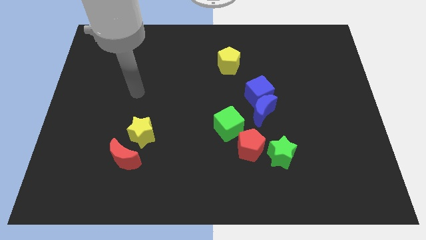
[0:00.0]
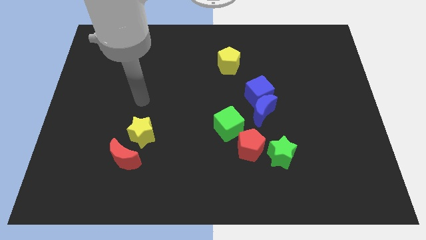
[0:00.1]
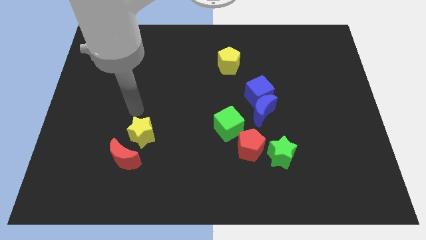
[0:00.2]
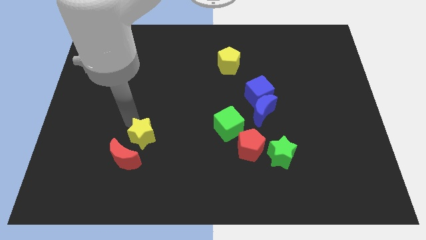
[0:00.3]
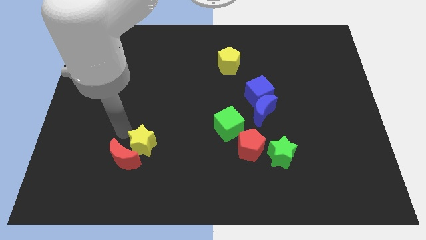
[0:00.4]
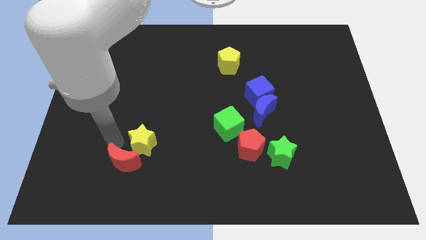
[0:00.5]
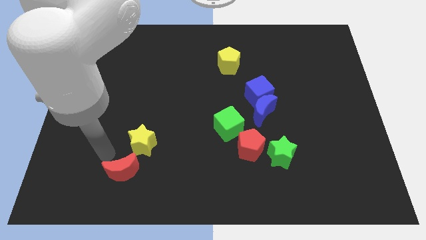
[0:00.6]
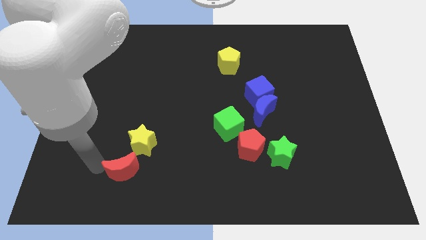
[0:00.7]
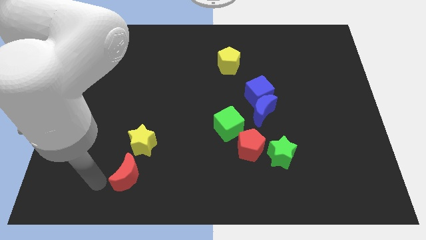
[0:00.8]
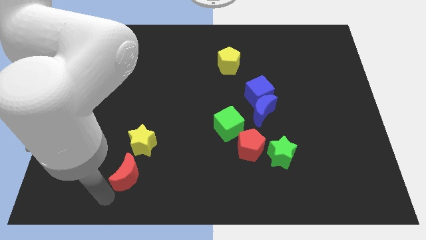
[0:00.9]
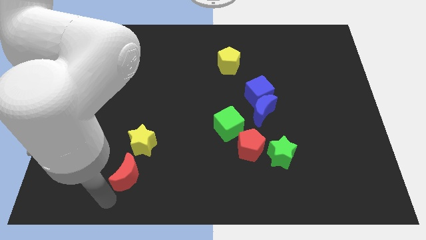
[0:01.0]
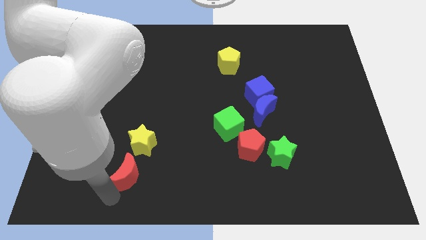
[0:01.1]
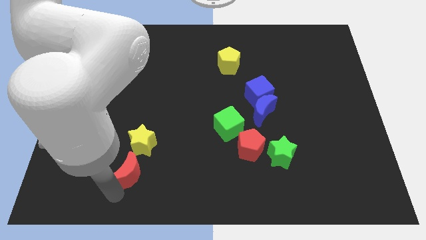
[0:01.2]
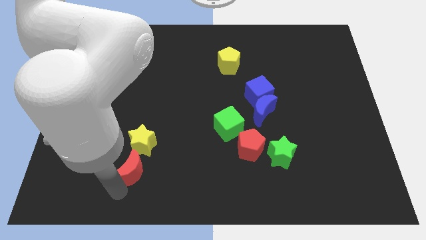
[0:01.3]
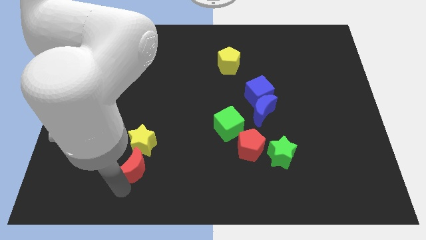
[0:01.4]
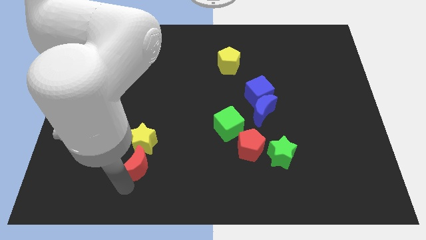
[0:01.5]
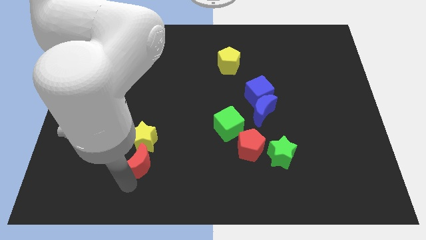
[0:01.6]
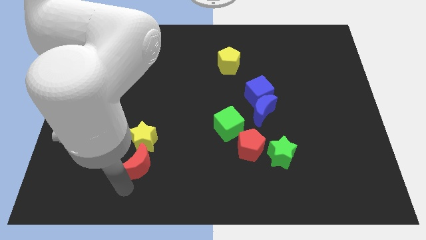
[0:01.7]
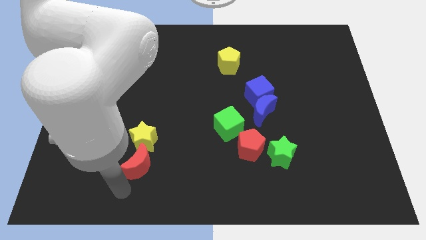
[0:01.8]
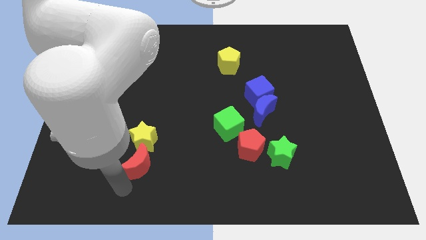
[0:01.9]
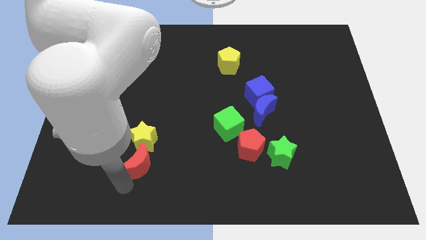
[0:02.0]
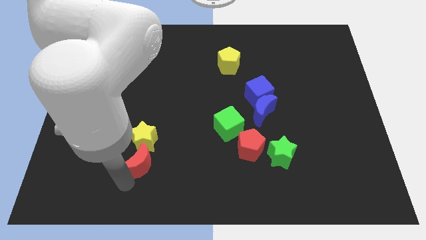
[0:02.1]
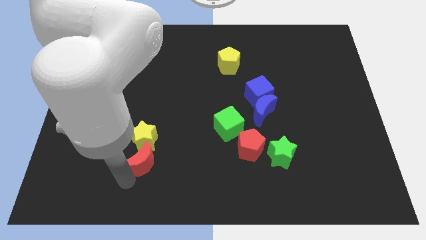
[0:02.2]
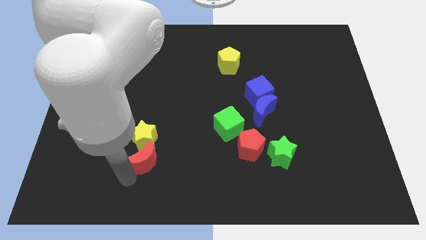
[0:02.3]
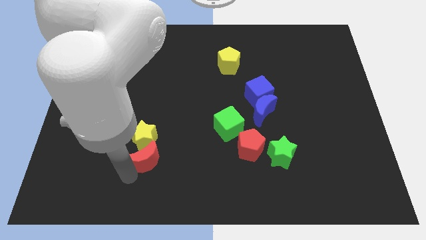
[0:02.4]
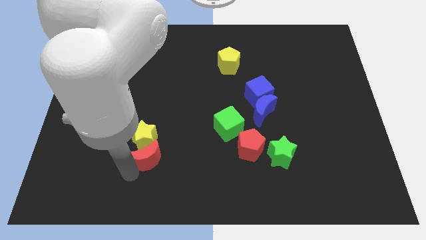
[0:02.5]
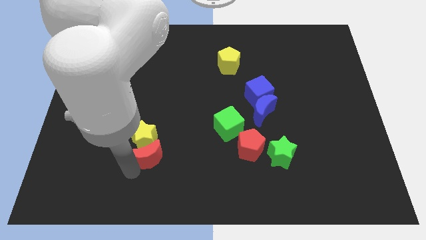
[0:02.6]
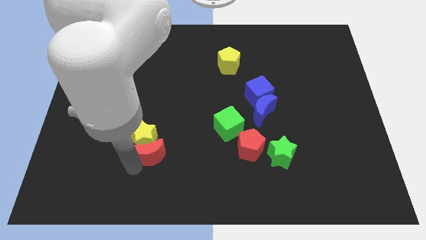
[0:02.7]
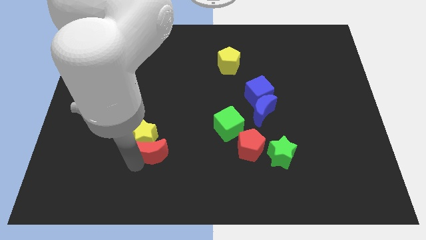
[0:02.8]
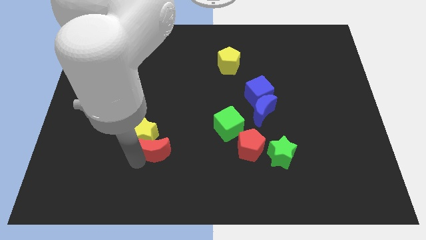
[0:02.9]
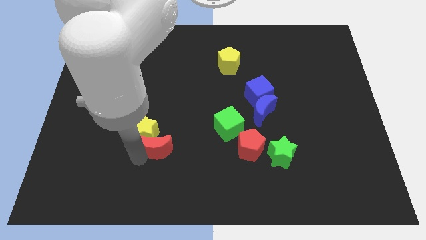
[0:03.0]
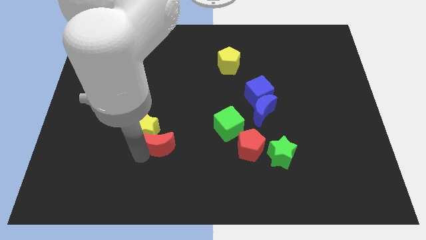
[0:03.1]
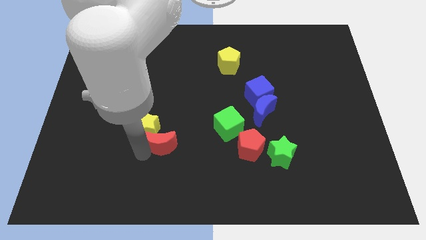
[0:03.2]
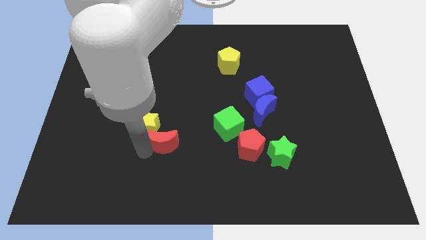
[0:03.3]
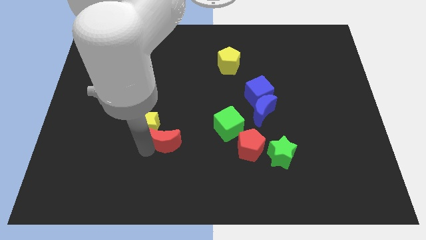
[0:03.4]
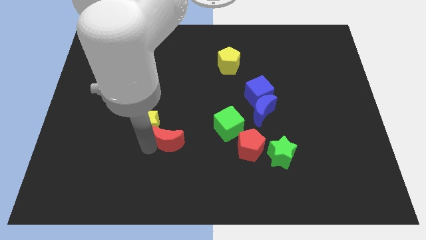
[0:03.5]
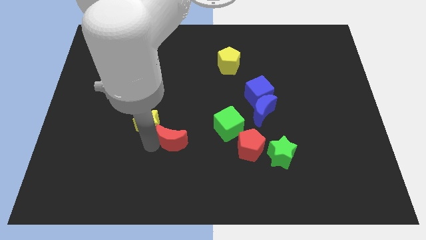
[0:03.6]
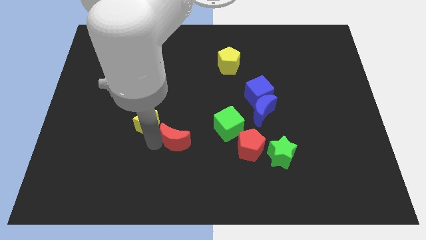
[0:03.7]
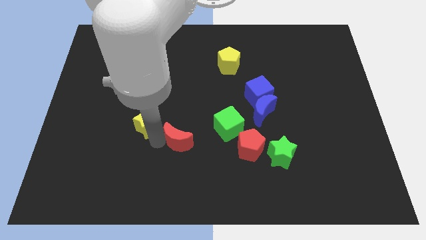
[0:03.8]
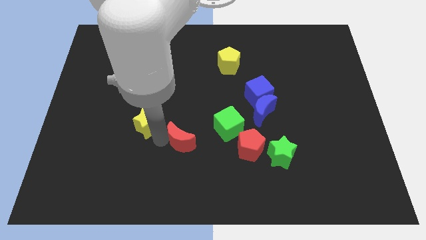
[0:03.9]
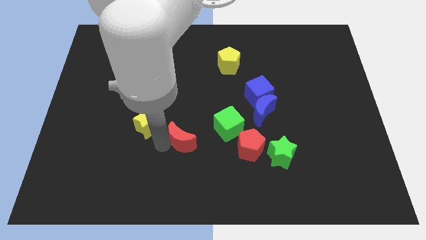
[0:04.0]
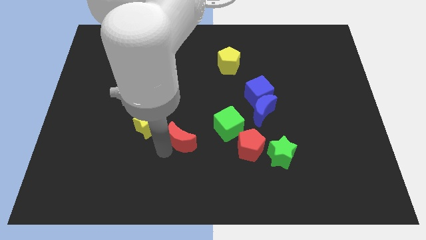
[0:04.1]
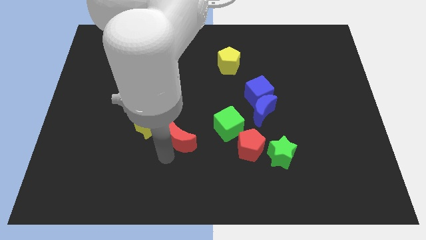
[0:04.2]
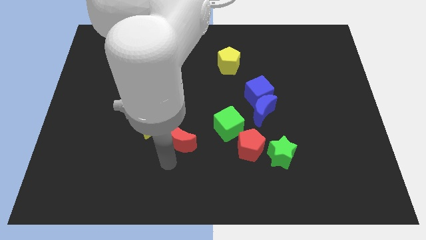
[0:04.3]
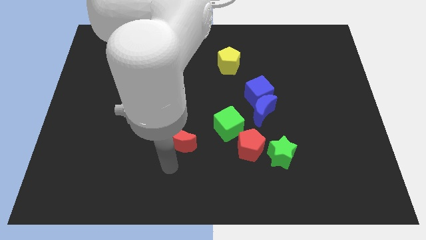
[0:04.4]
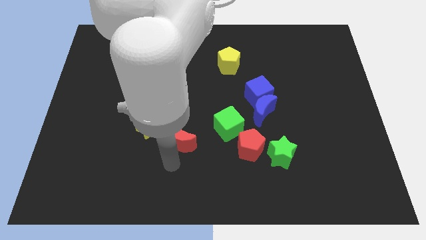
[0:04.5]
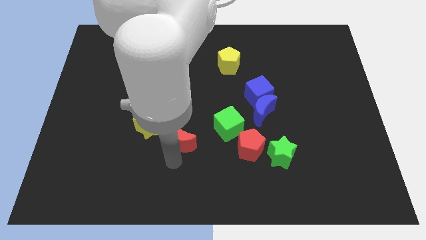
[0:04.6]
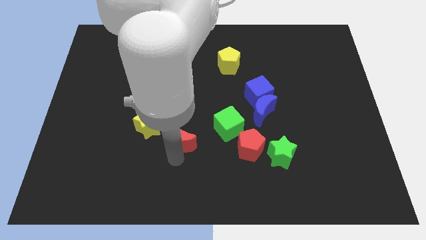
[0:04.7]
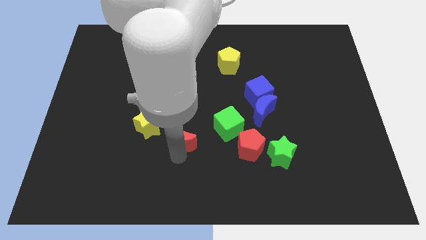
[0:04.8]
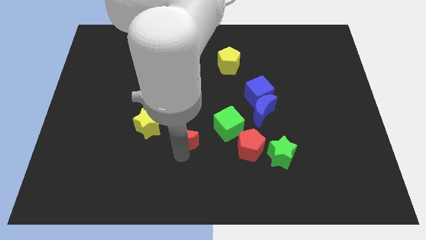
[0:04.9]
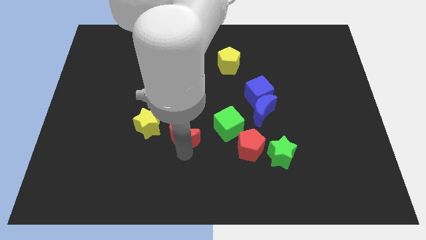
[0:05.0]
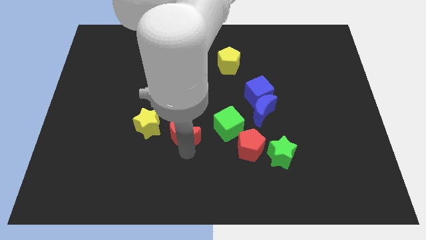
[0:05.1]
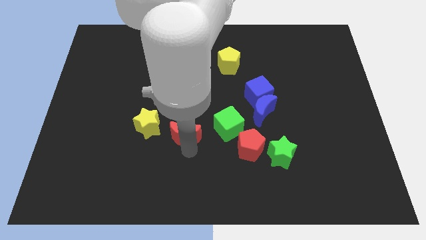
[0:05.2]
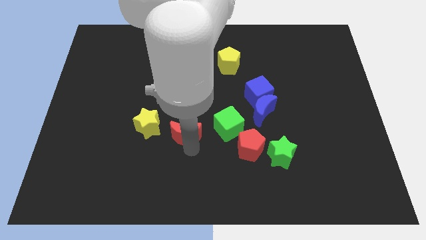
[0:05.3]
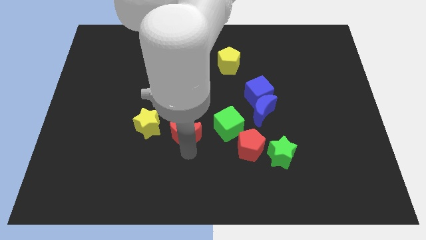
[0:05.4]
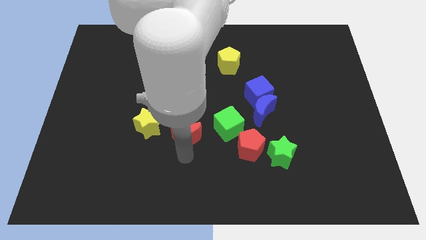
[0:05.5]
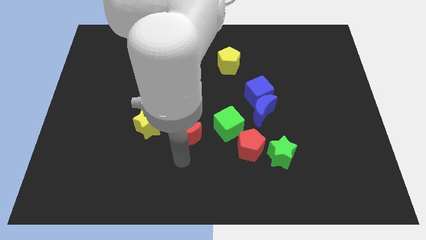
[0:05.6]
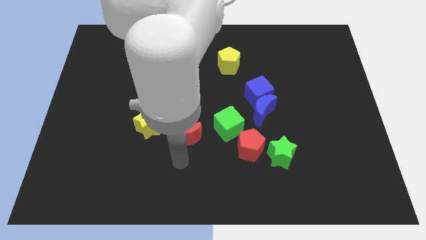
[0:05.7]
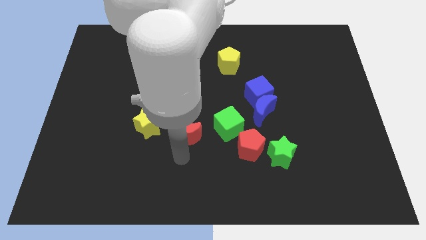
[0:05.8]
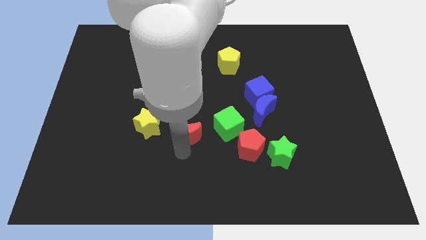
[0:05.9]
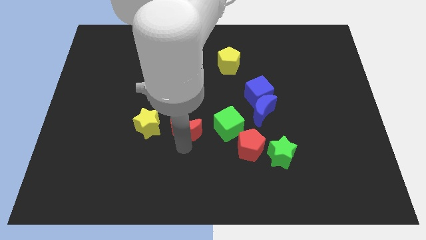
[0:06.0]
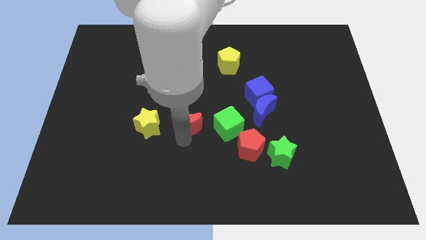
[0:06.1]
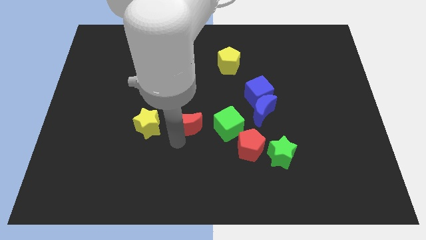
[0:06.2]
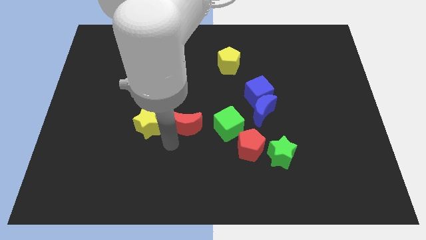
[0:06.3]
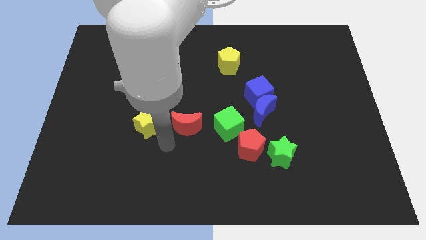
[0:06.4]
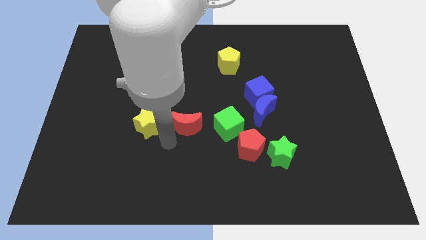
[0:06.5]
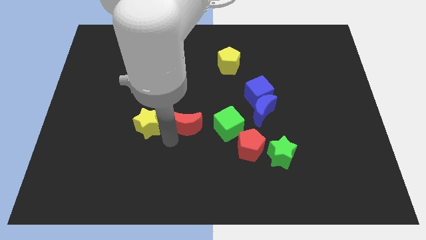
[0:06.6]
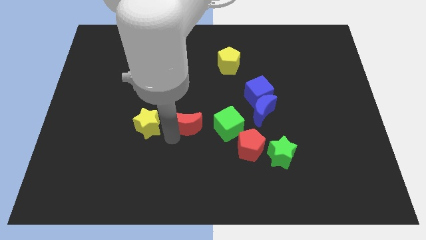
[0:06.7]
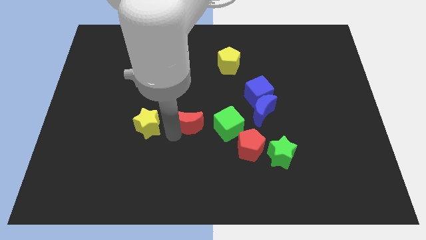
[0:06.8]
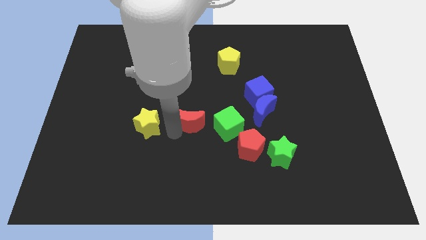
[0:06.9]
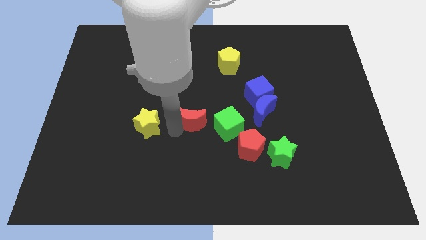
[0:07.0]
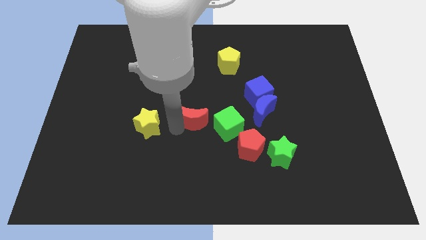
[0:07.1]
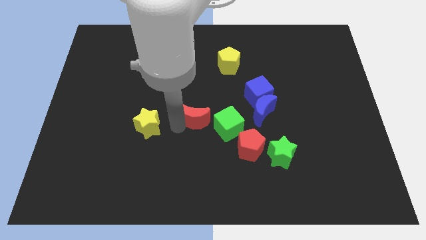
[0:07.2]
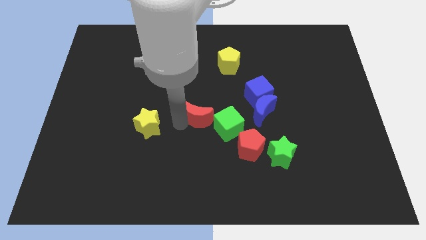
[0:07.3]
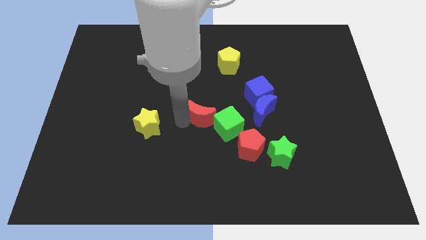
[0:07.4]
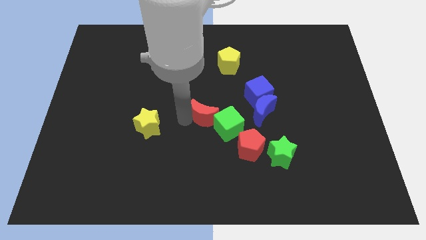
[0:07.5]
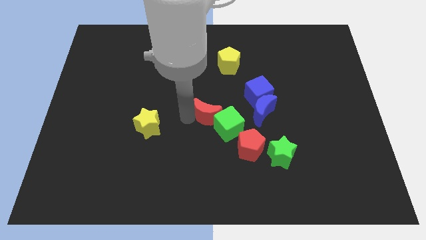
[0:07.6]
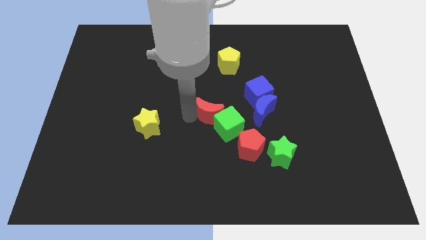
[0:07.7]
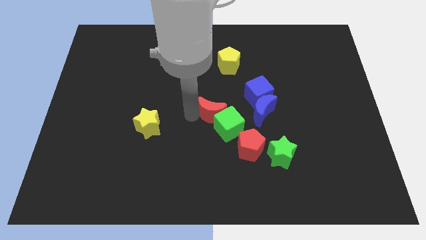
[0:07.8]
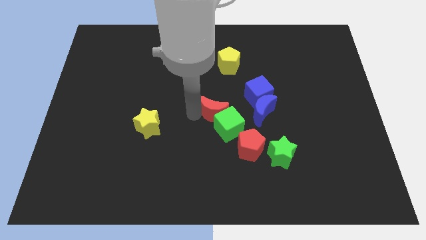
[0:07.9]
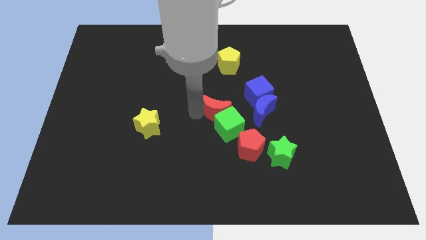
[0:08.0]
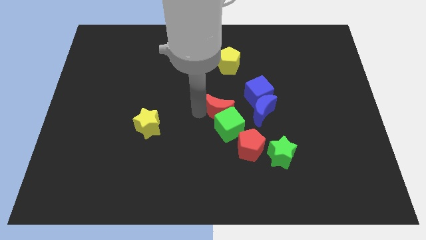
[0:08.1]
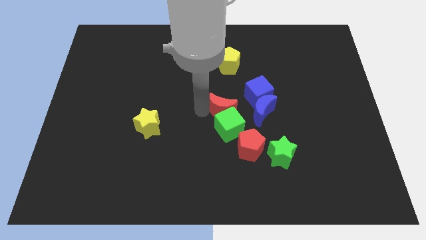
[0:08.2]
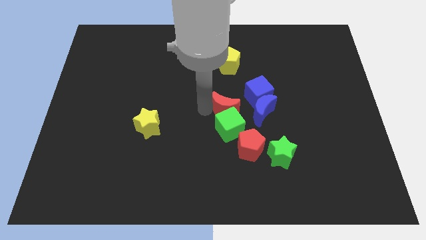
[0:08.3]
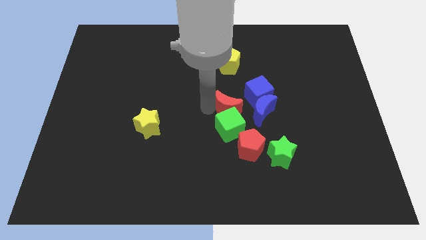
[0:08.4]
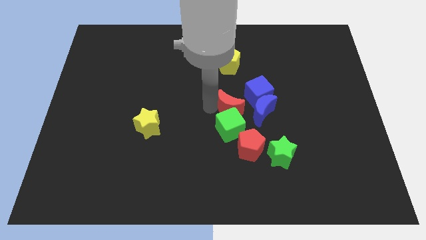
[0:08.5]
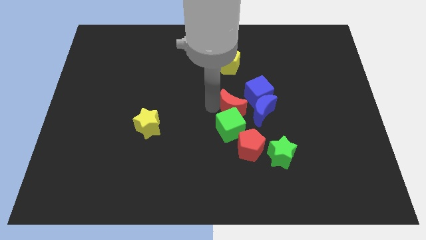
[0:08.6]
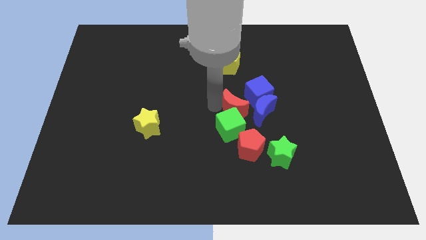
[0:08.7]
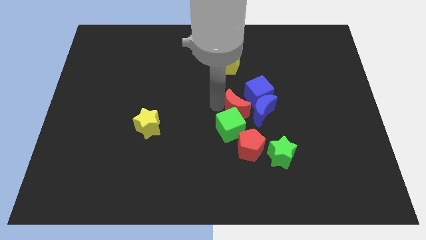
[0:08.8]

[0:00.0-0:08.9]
slide the red moon to the blue moon
